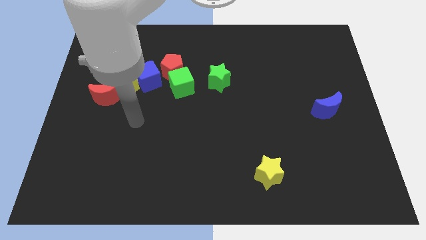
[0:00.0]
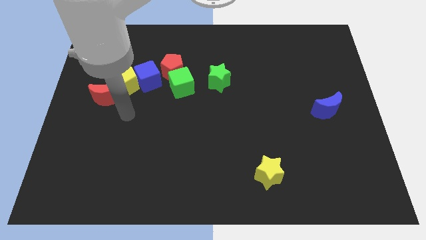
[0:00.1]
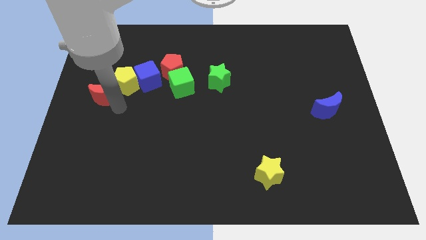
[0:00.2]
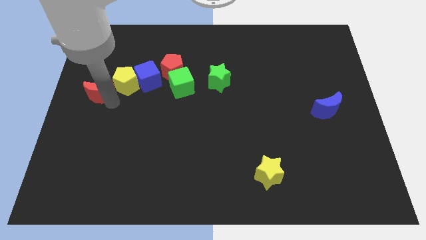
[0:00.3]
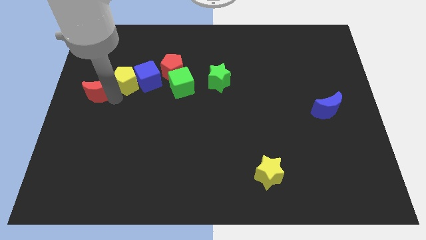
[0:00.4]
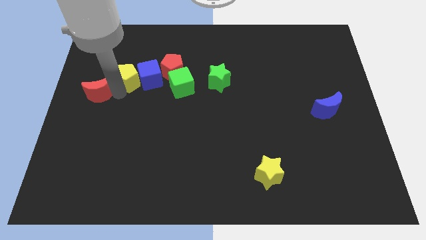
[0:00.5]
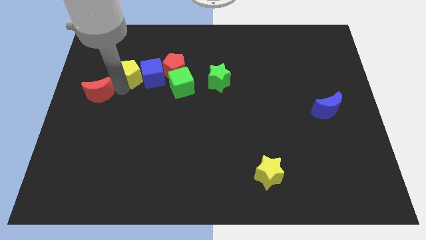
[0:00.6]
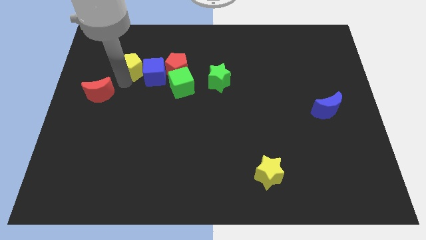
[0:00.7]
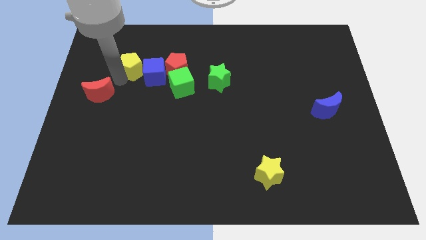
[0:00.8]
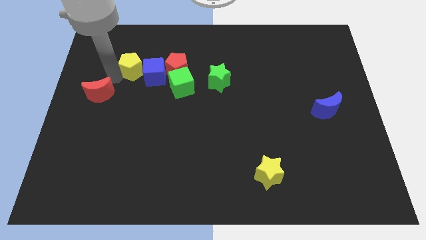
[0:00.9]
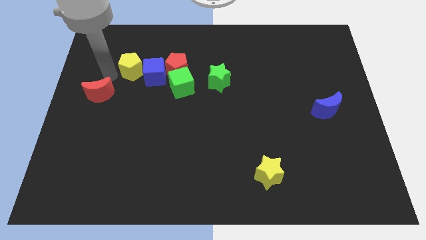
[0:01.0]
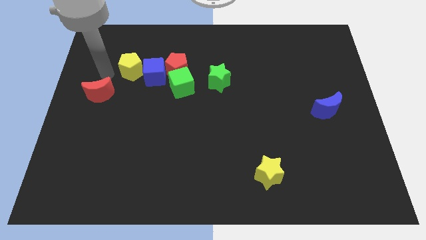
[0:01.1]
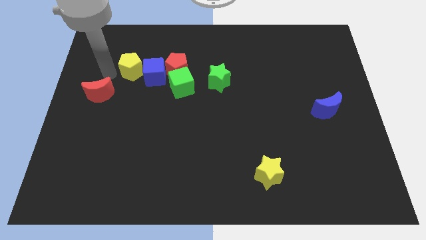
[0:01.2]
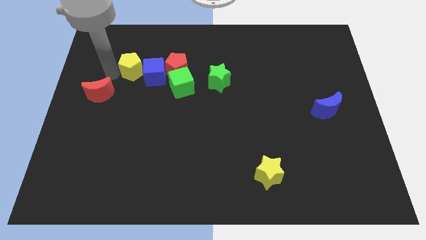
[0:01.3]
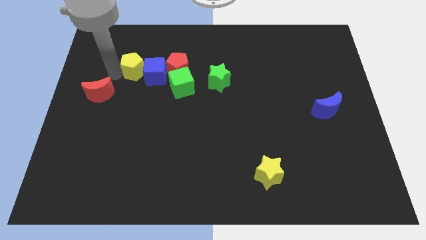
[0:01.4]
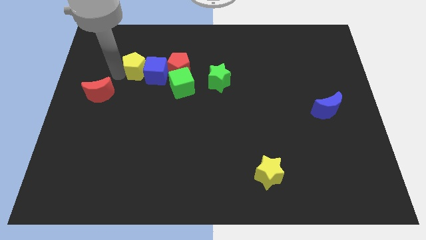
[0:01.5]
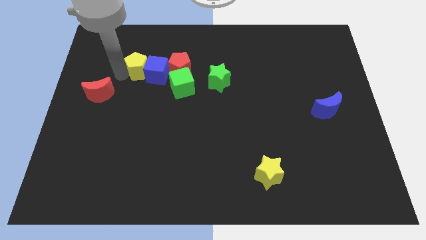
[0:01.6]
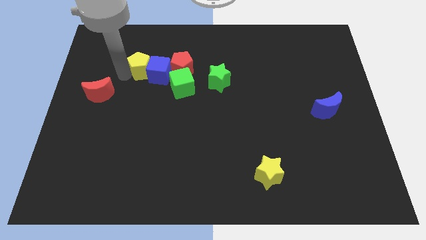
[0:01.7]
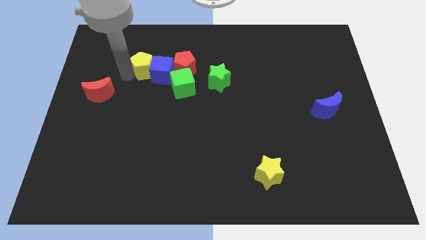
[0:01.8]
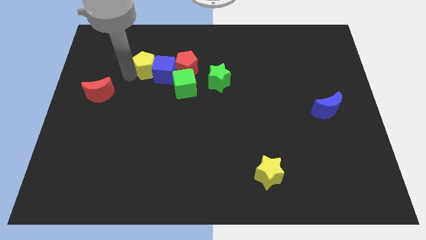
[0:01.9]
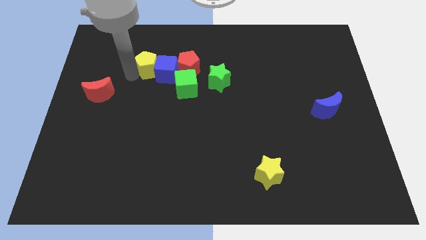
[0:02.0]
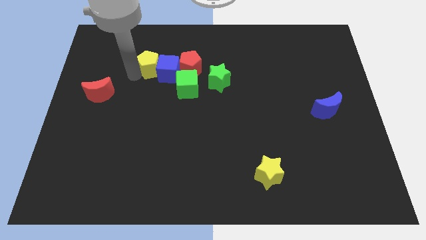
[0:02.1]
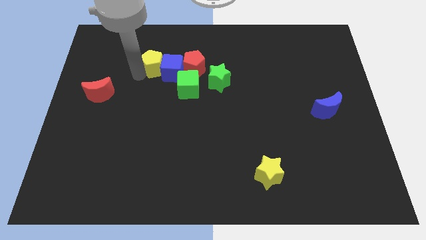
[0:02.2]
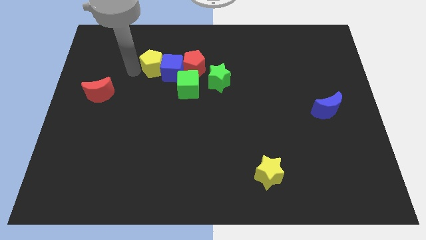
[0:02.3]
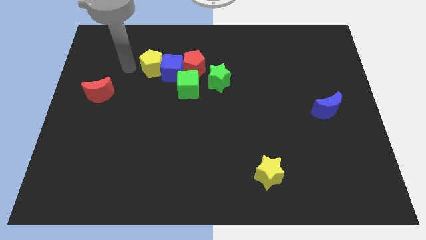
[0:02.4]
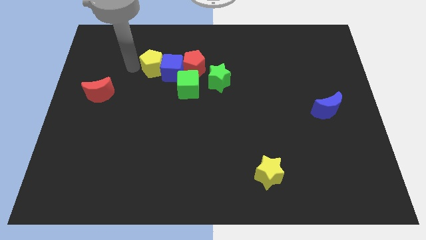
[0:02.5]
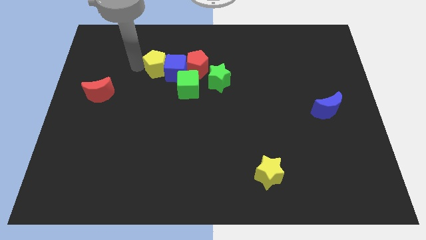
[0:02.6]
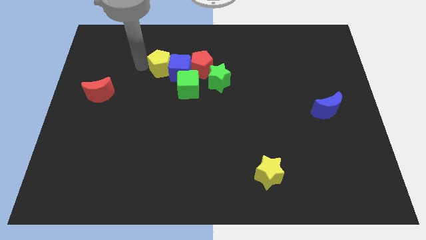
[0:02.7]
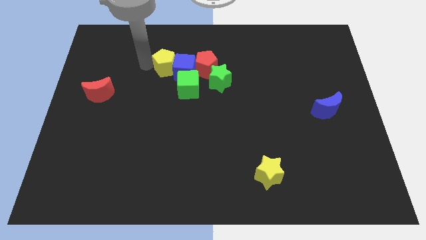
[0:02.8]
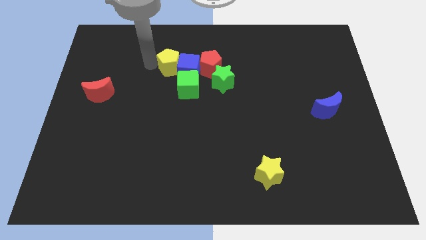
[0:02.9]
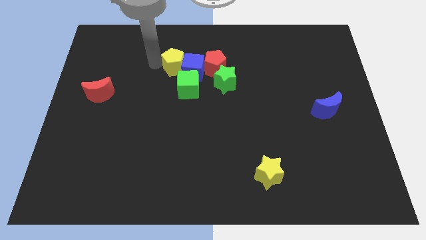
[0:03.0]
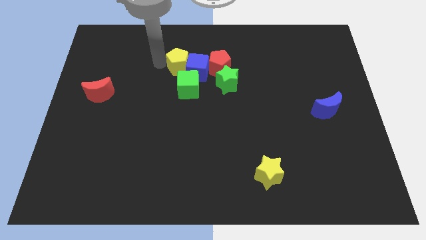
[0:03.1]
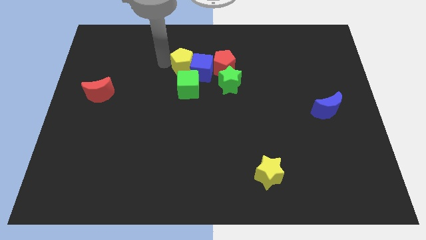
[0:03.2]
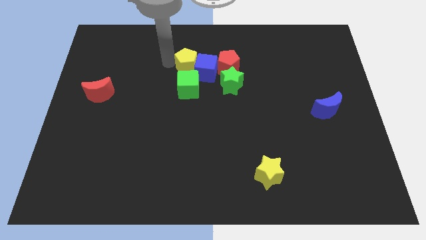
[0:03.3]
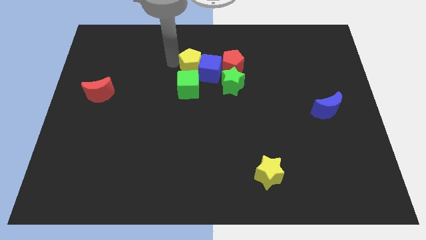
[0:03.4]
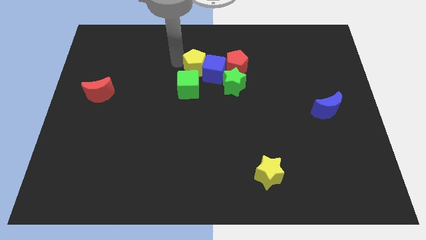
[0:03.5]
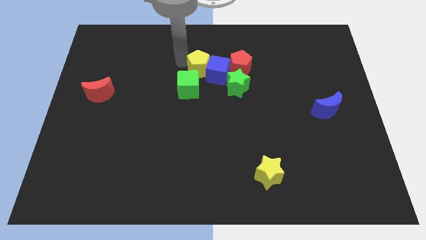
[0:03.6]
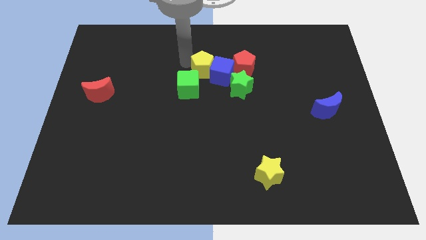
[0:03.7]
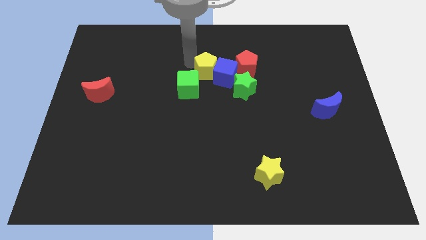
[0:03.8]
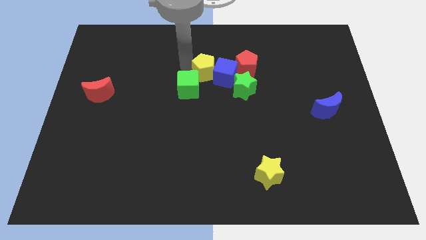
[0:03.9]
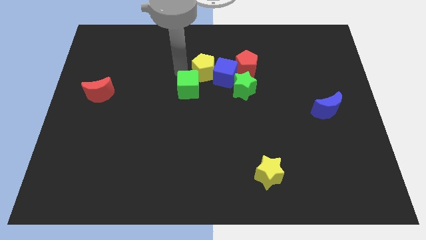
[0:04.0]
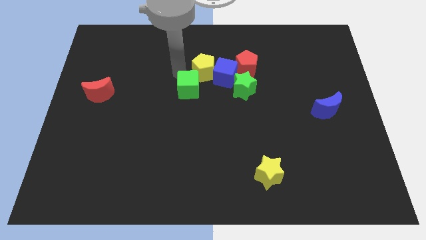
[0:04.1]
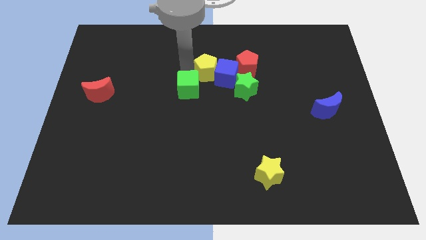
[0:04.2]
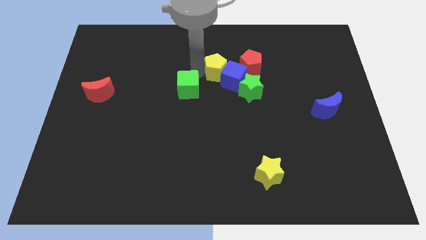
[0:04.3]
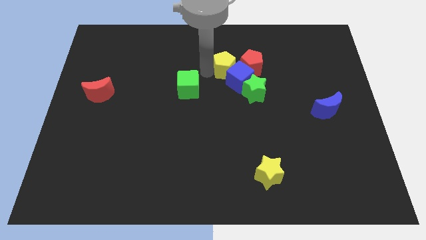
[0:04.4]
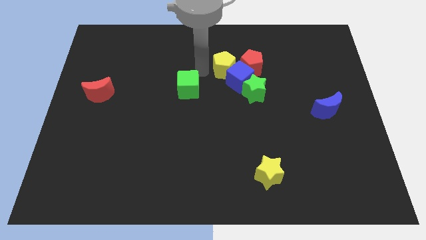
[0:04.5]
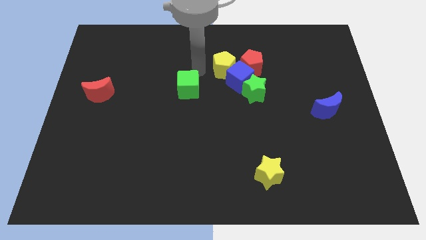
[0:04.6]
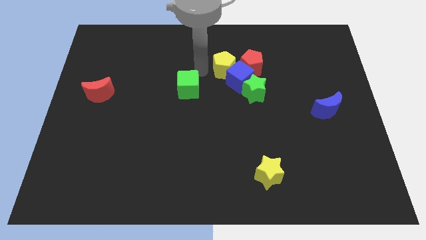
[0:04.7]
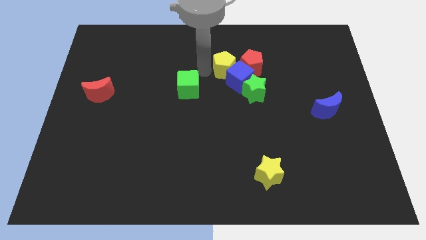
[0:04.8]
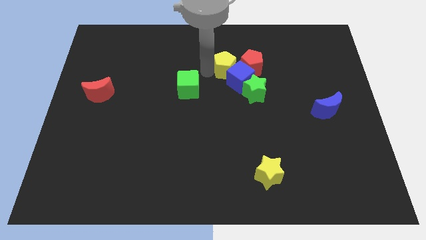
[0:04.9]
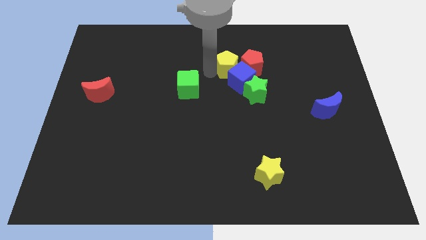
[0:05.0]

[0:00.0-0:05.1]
slide the yellow pentagon to the red pentagon

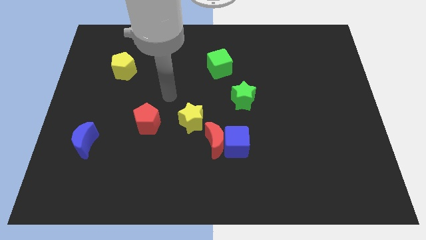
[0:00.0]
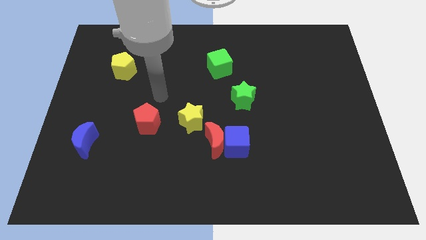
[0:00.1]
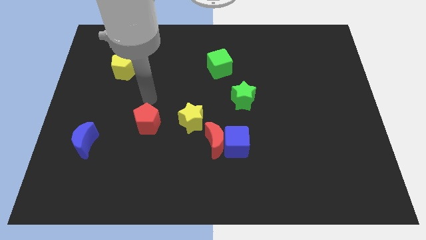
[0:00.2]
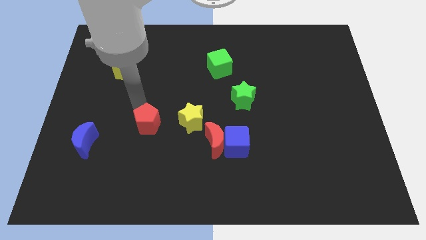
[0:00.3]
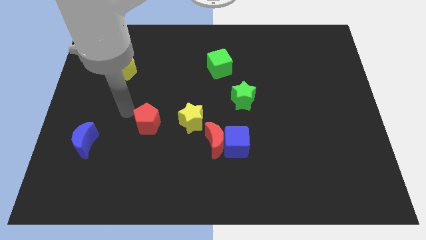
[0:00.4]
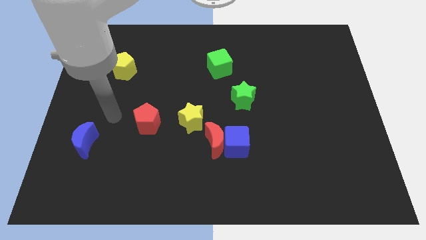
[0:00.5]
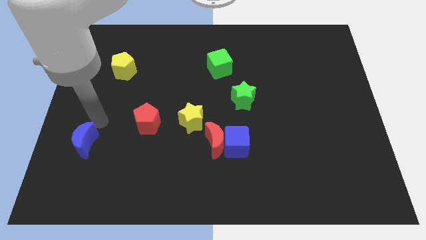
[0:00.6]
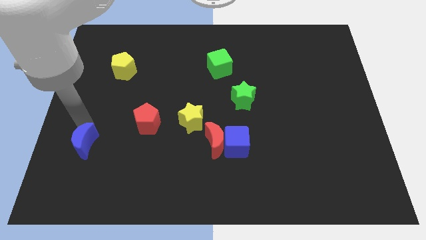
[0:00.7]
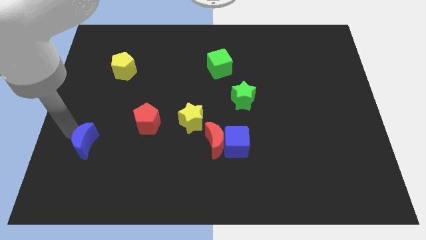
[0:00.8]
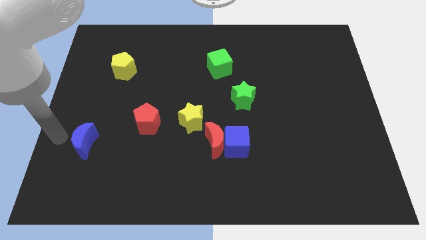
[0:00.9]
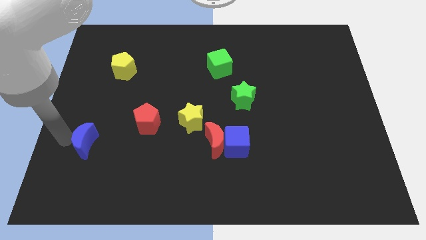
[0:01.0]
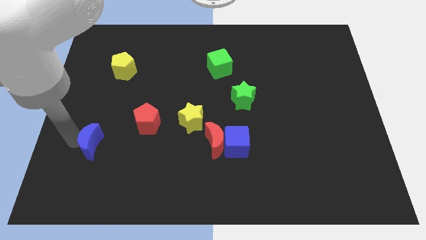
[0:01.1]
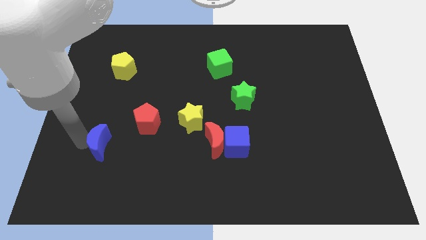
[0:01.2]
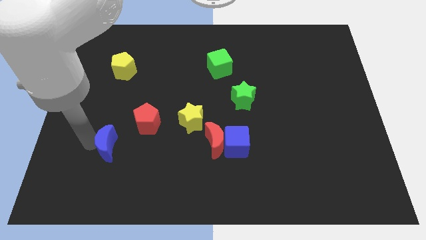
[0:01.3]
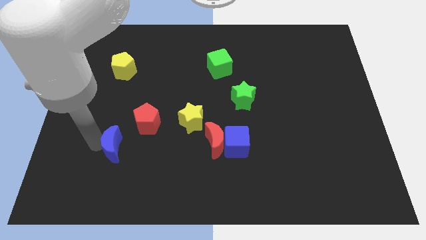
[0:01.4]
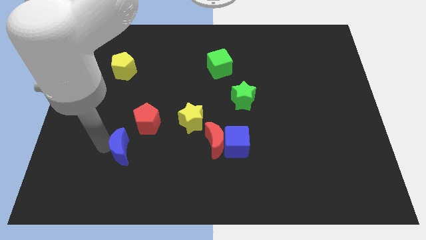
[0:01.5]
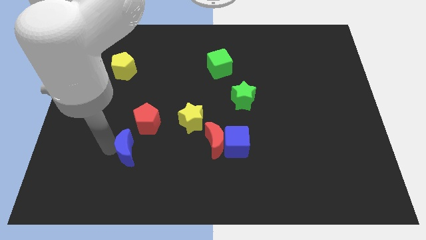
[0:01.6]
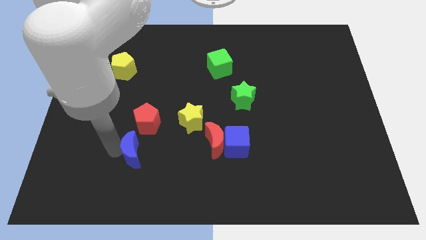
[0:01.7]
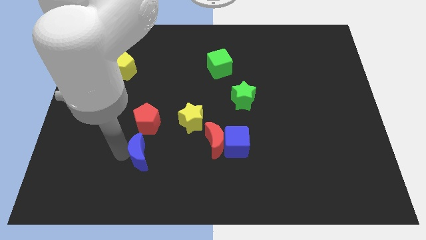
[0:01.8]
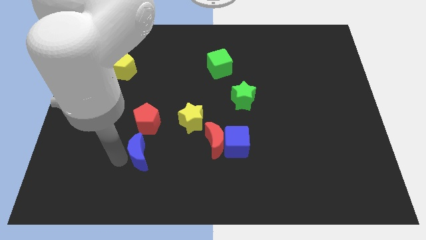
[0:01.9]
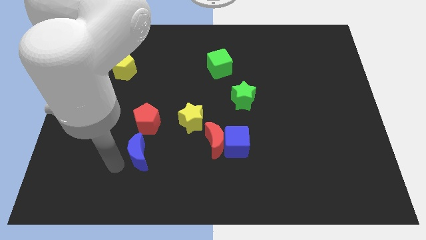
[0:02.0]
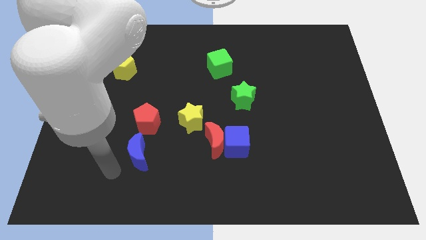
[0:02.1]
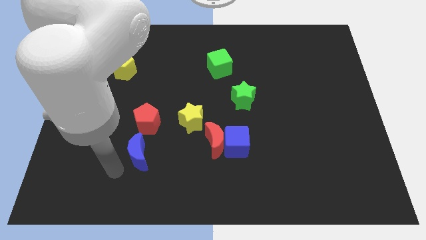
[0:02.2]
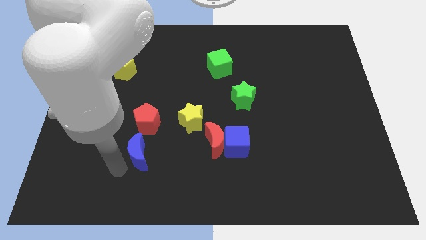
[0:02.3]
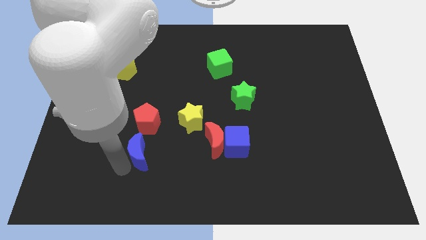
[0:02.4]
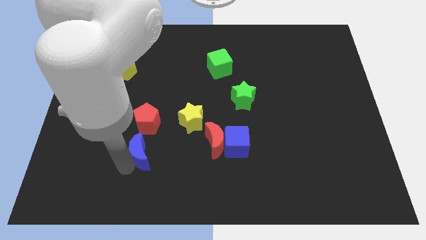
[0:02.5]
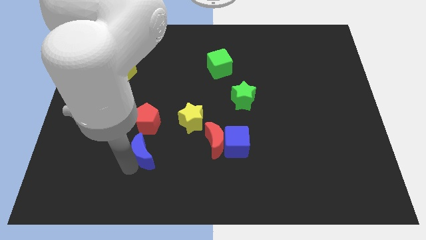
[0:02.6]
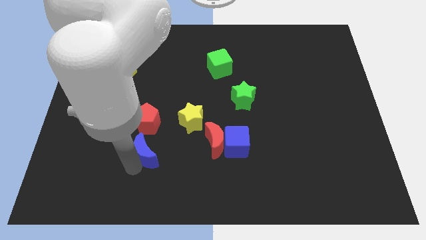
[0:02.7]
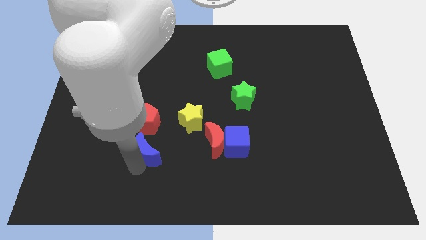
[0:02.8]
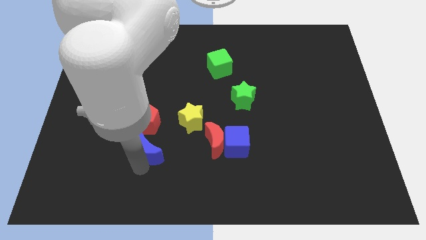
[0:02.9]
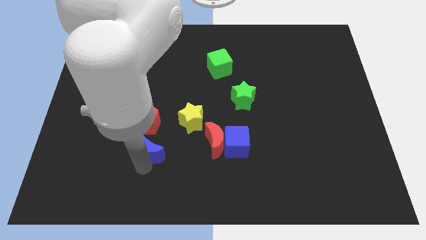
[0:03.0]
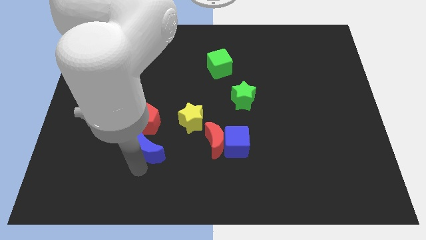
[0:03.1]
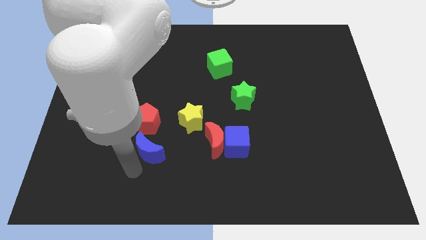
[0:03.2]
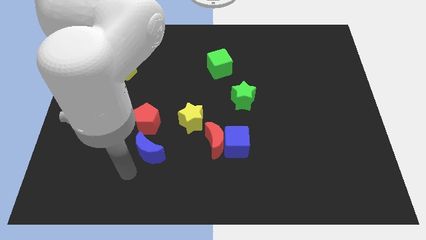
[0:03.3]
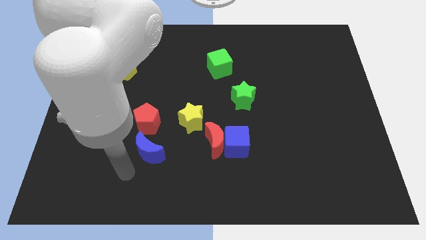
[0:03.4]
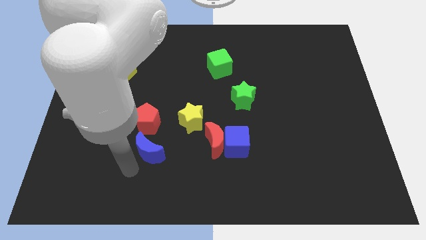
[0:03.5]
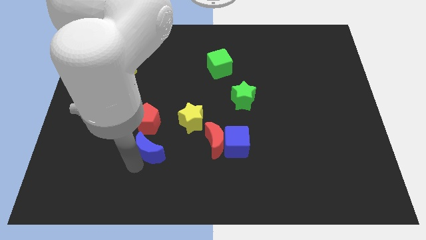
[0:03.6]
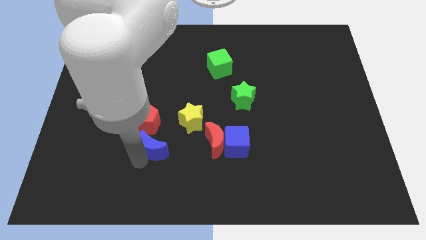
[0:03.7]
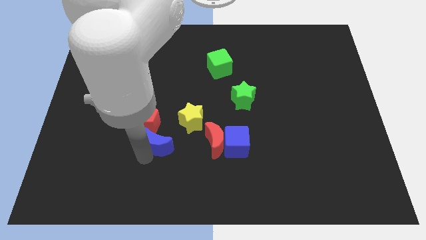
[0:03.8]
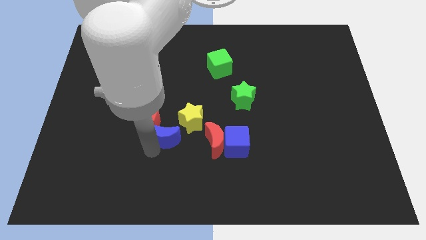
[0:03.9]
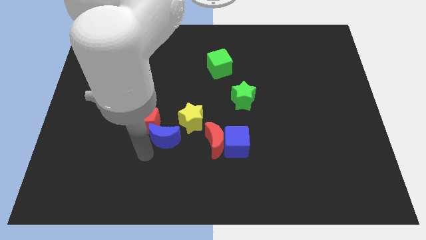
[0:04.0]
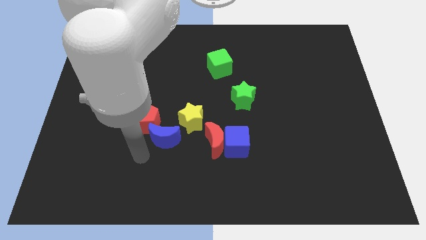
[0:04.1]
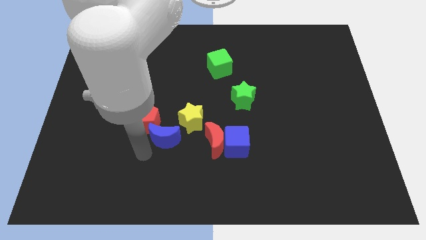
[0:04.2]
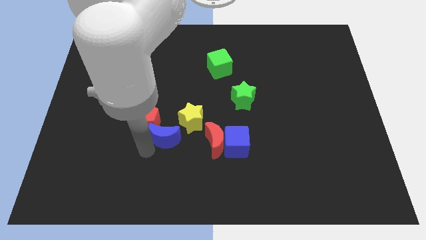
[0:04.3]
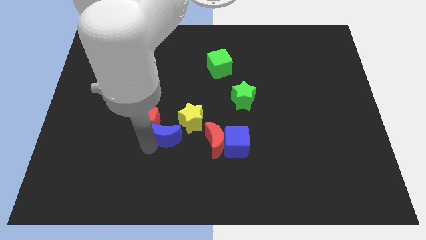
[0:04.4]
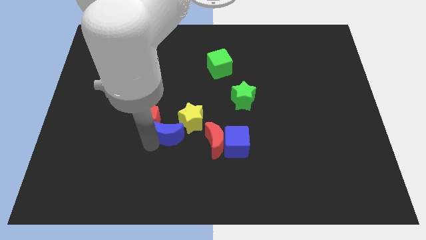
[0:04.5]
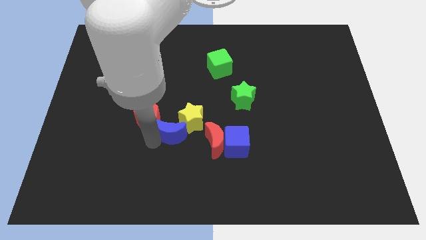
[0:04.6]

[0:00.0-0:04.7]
slide the blue moon to the yellow star
